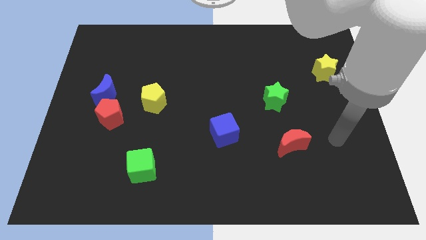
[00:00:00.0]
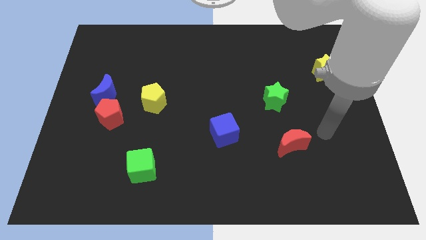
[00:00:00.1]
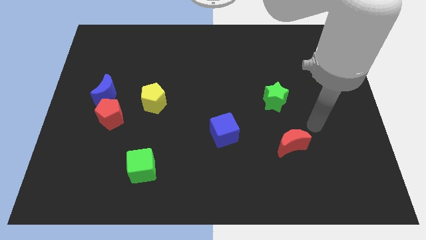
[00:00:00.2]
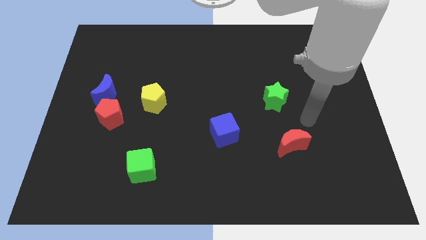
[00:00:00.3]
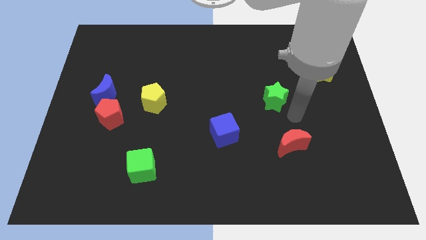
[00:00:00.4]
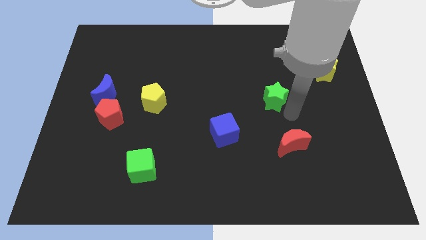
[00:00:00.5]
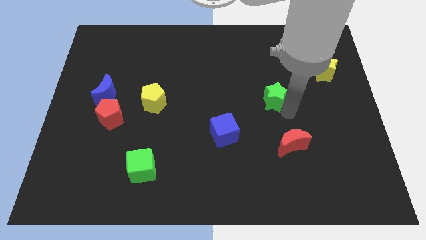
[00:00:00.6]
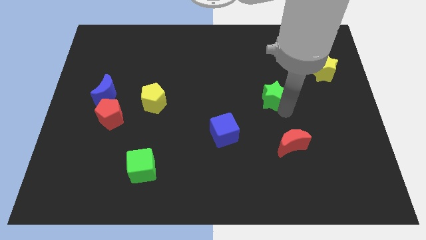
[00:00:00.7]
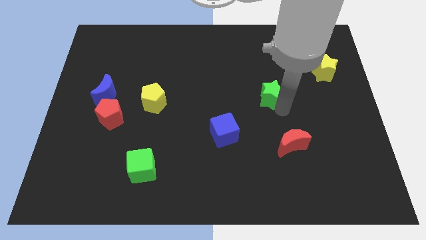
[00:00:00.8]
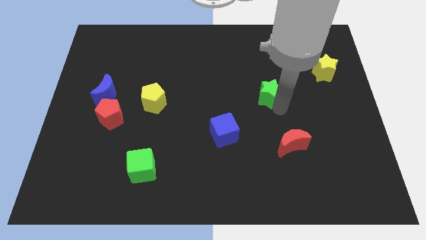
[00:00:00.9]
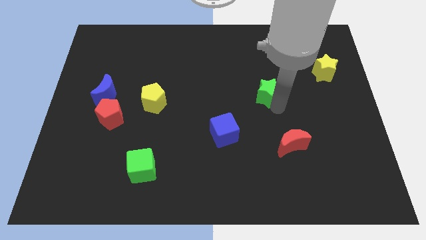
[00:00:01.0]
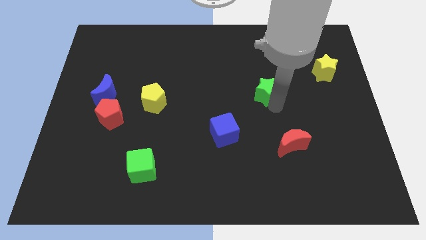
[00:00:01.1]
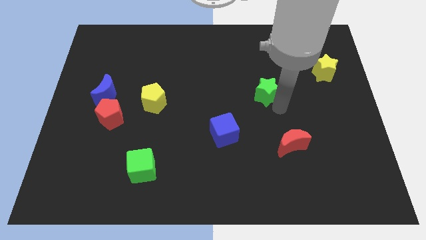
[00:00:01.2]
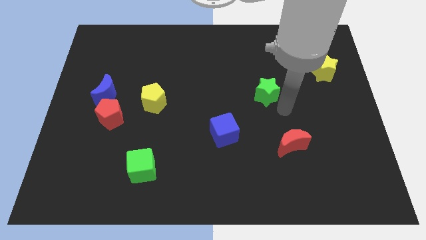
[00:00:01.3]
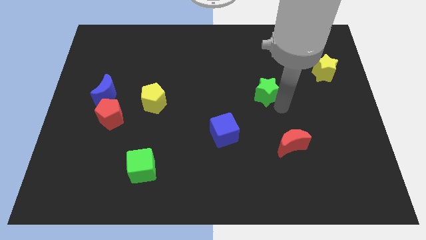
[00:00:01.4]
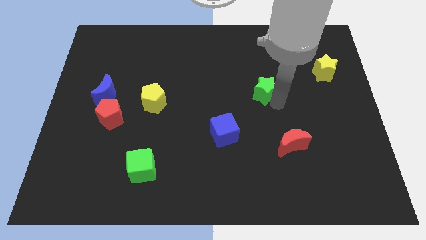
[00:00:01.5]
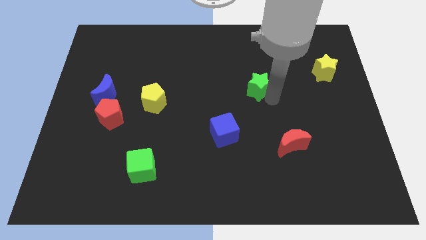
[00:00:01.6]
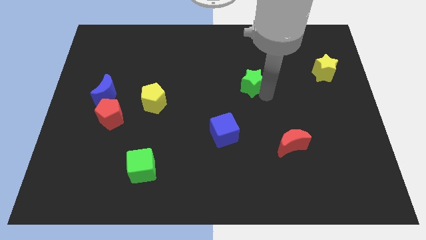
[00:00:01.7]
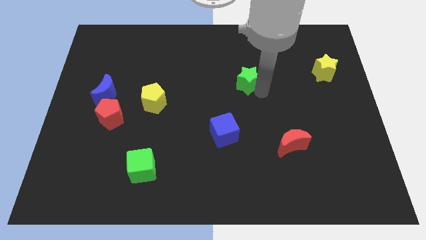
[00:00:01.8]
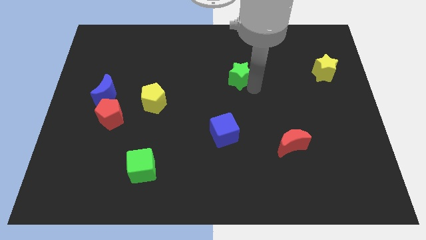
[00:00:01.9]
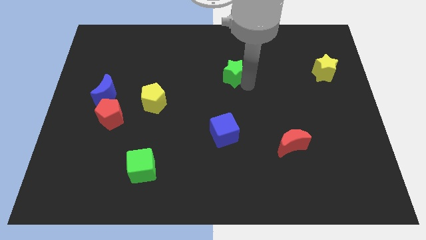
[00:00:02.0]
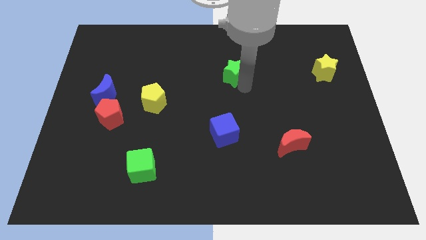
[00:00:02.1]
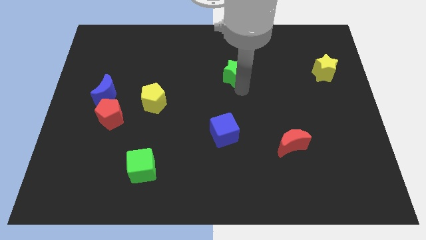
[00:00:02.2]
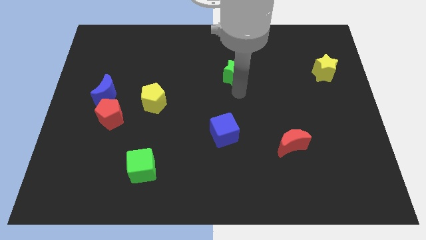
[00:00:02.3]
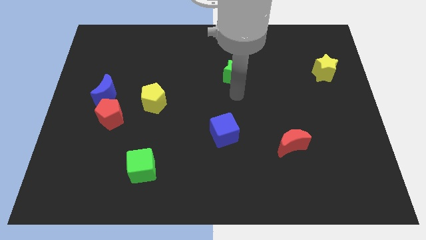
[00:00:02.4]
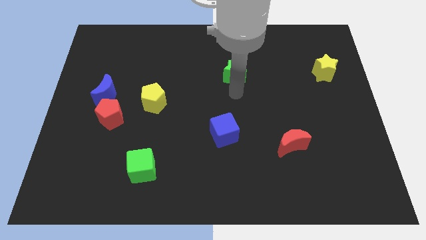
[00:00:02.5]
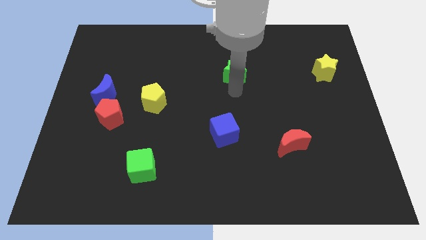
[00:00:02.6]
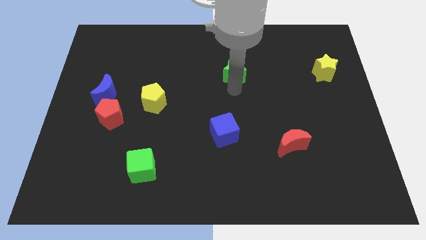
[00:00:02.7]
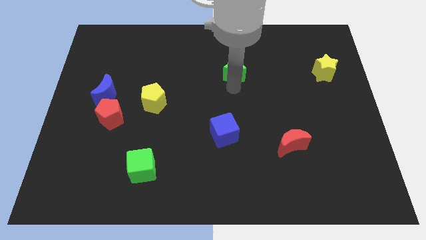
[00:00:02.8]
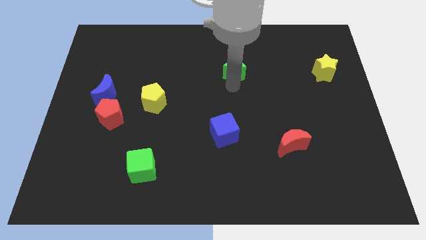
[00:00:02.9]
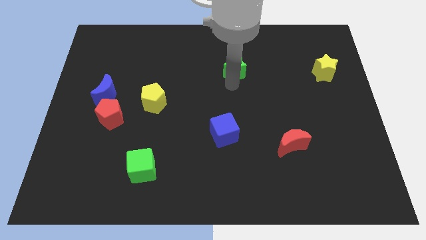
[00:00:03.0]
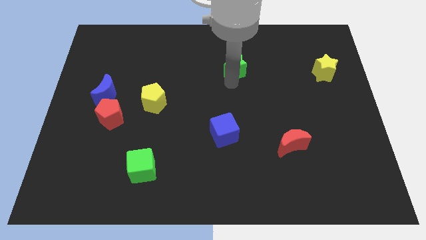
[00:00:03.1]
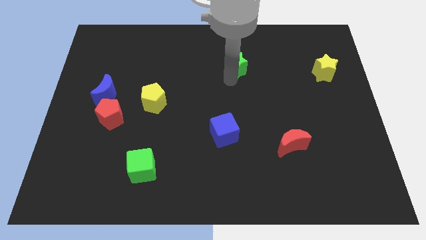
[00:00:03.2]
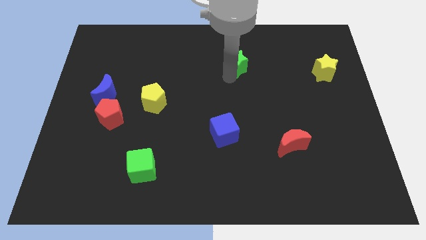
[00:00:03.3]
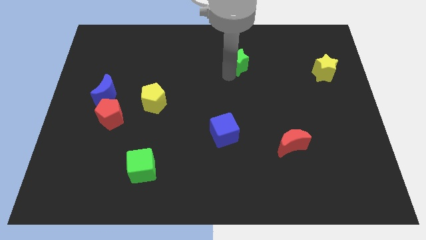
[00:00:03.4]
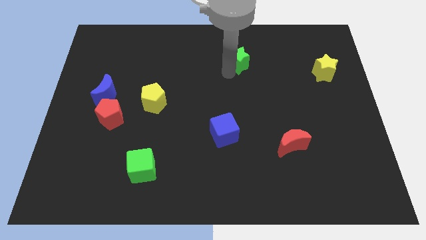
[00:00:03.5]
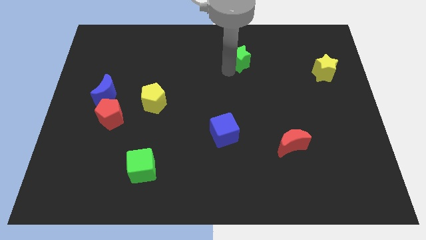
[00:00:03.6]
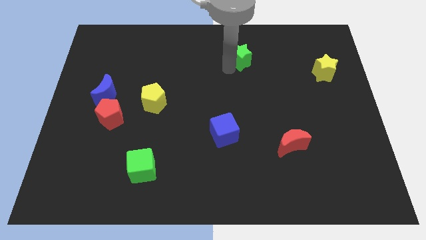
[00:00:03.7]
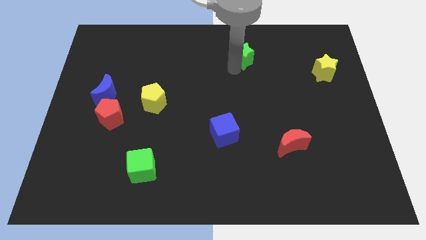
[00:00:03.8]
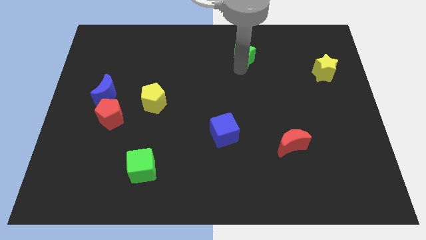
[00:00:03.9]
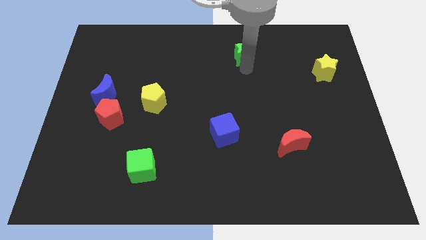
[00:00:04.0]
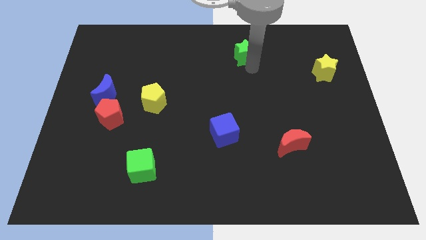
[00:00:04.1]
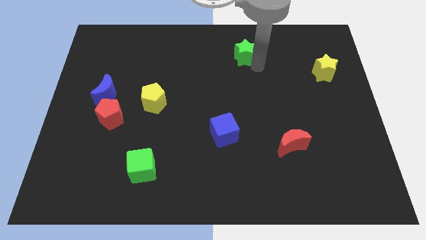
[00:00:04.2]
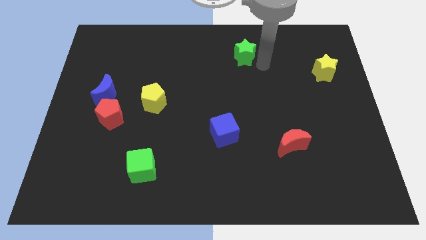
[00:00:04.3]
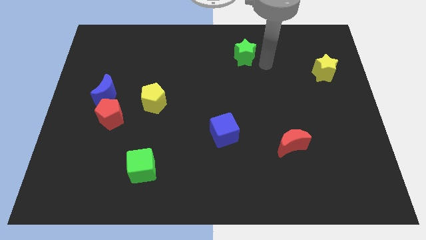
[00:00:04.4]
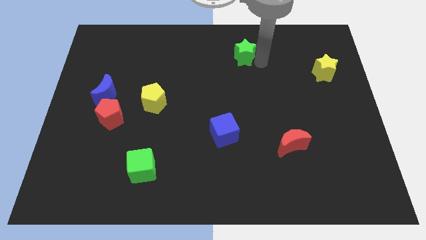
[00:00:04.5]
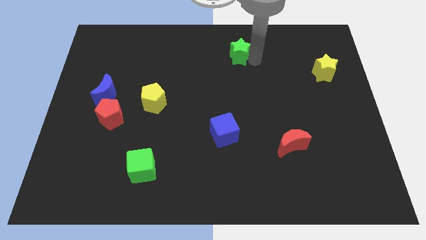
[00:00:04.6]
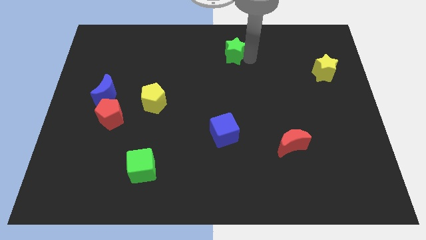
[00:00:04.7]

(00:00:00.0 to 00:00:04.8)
put the green star to the top

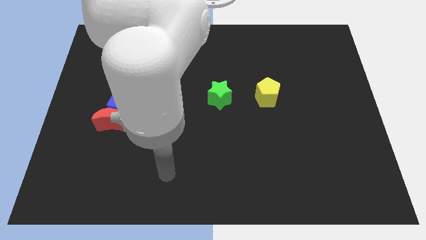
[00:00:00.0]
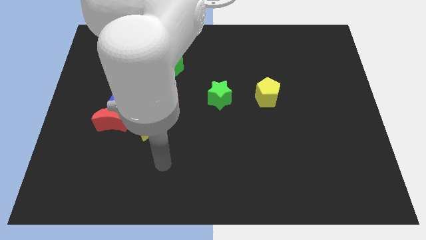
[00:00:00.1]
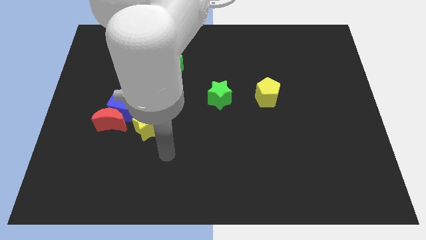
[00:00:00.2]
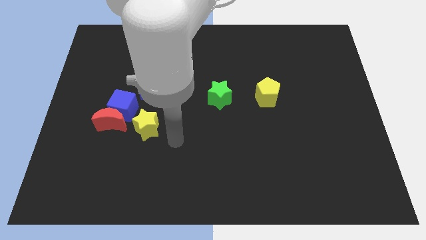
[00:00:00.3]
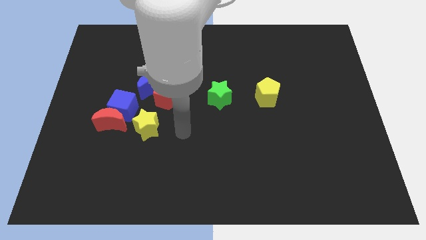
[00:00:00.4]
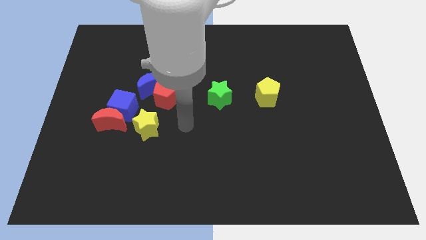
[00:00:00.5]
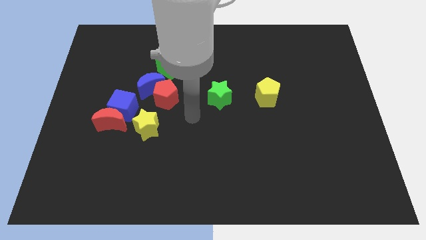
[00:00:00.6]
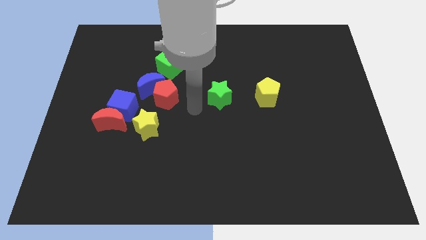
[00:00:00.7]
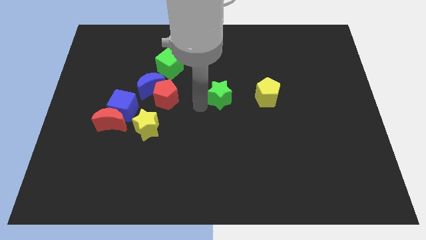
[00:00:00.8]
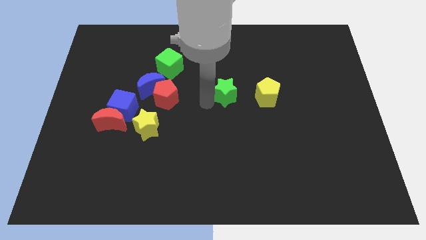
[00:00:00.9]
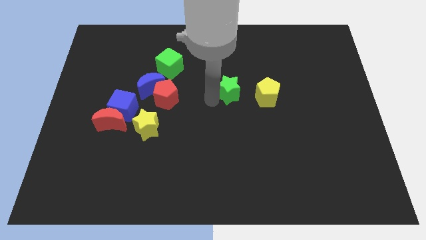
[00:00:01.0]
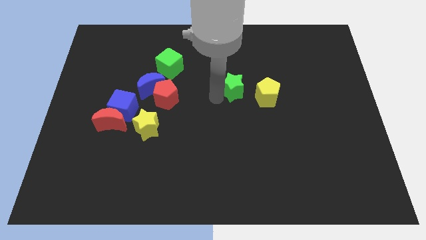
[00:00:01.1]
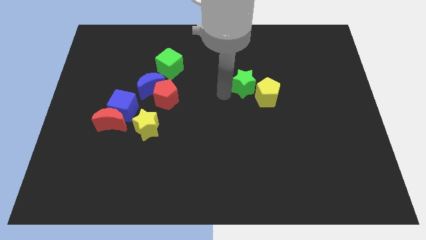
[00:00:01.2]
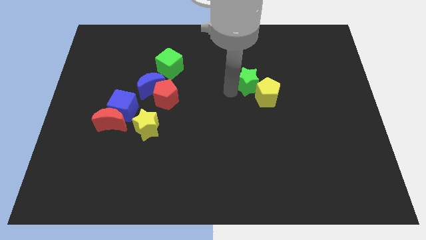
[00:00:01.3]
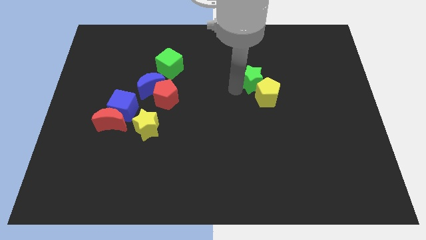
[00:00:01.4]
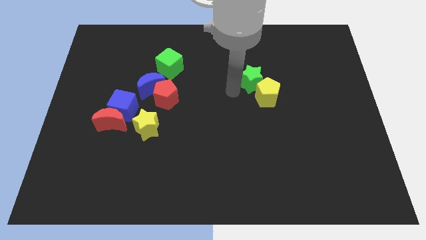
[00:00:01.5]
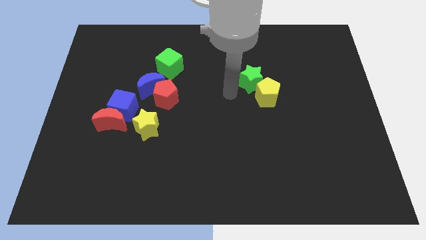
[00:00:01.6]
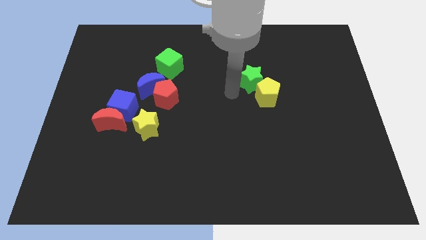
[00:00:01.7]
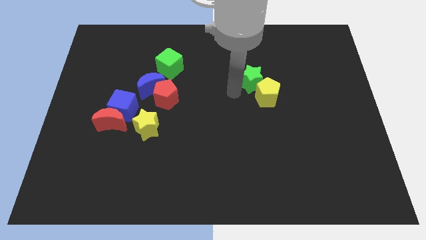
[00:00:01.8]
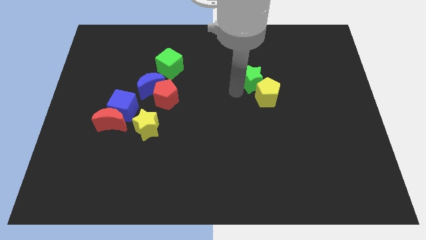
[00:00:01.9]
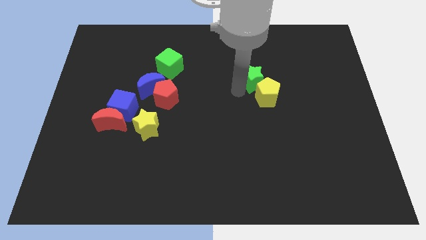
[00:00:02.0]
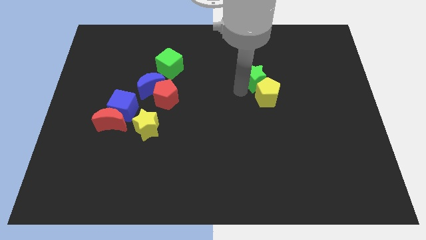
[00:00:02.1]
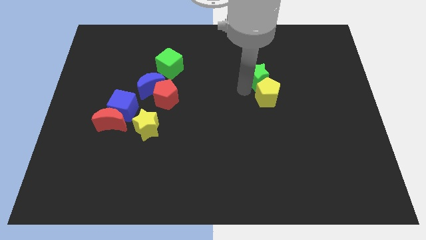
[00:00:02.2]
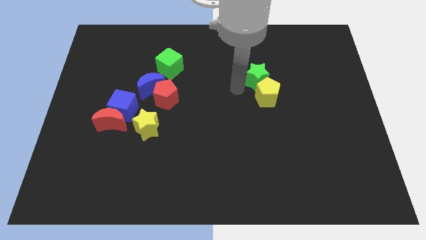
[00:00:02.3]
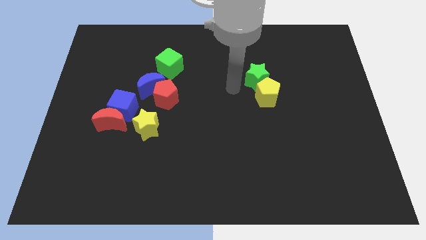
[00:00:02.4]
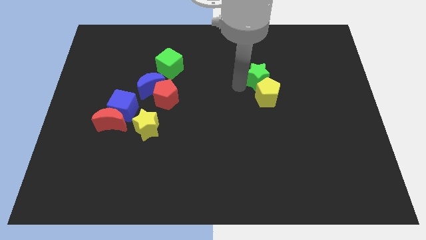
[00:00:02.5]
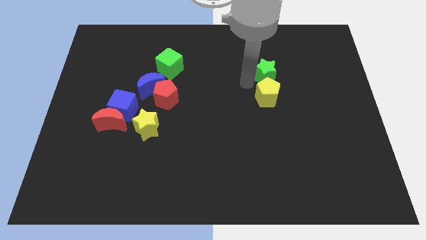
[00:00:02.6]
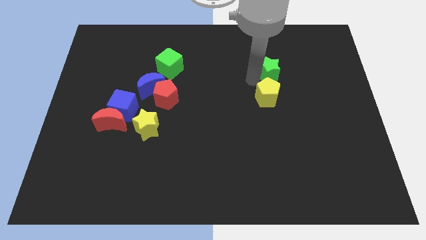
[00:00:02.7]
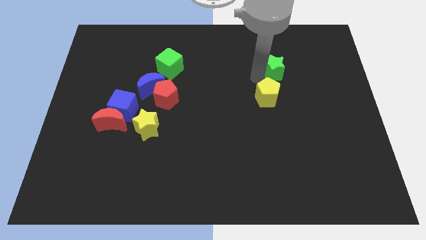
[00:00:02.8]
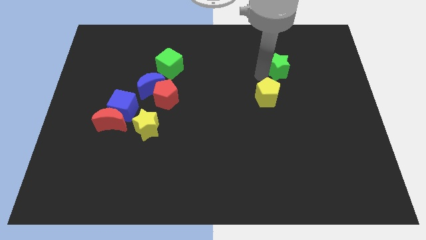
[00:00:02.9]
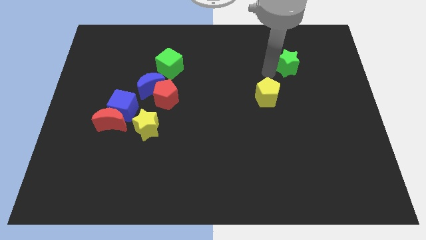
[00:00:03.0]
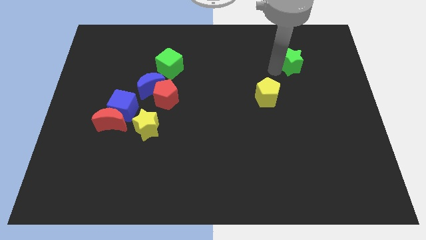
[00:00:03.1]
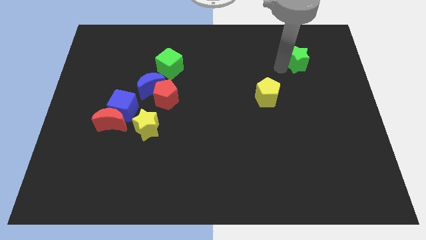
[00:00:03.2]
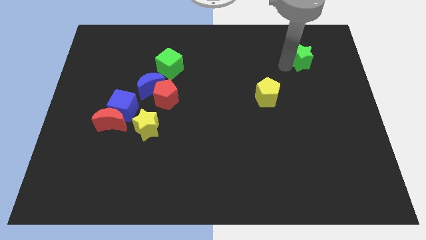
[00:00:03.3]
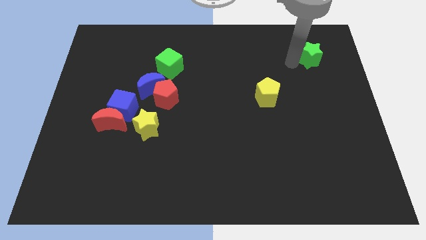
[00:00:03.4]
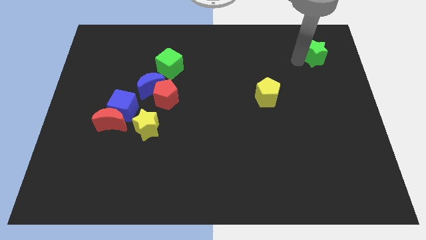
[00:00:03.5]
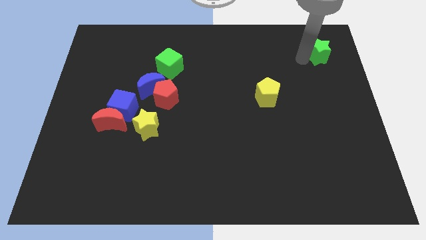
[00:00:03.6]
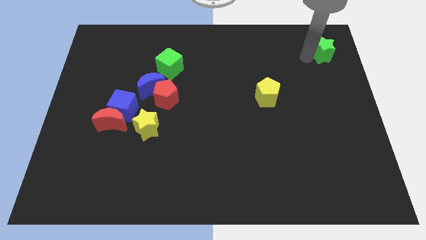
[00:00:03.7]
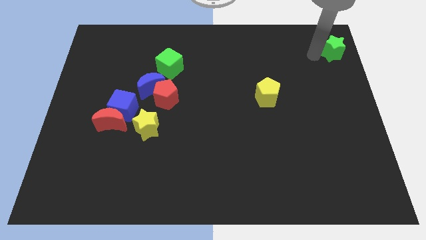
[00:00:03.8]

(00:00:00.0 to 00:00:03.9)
push the green star to the top right corner
